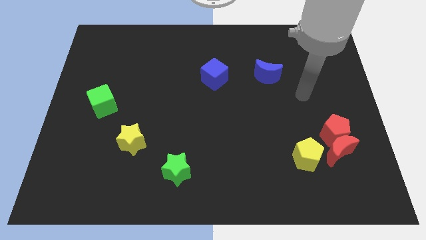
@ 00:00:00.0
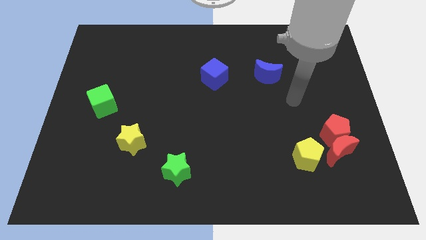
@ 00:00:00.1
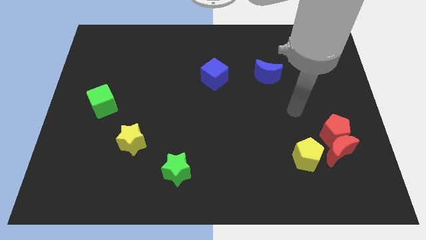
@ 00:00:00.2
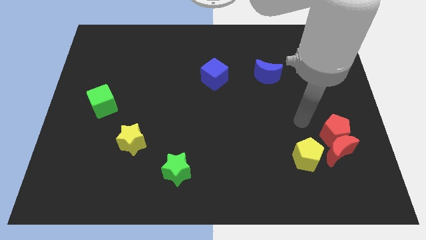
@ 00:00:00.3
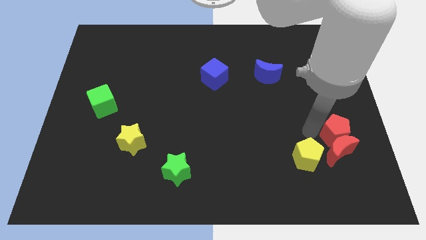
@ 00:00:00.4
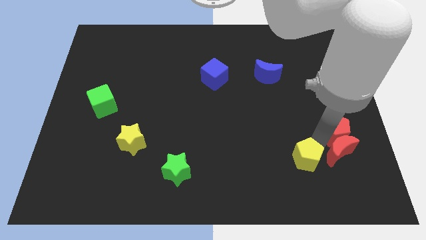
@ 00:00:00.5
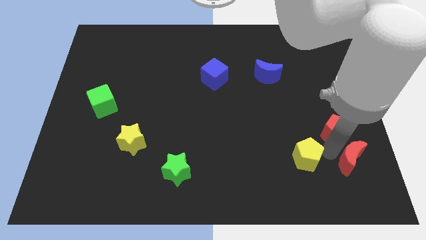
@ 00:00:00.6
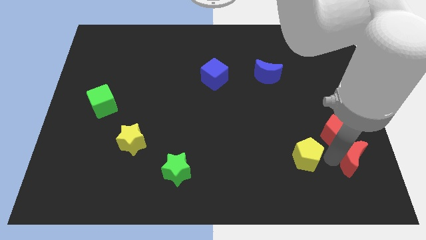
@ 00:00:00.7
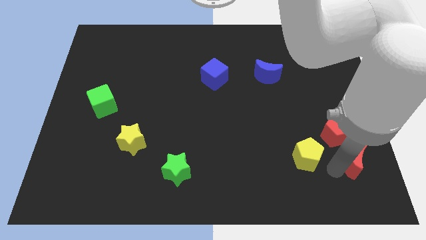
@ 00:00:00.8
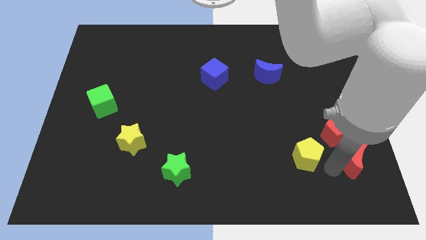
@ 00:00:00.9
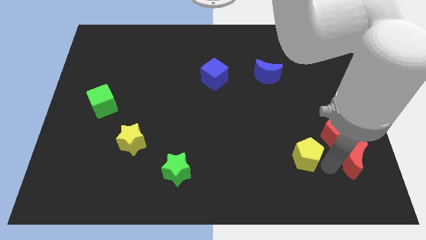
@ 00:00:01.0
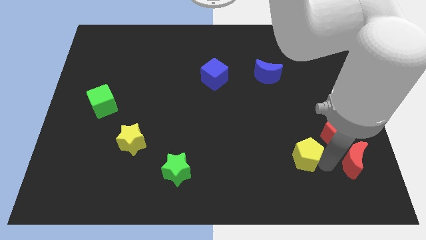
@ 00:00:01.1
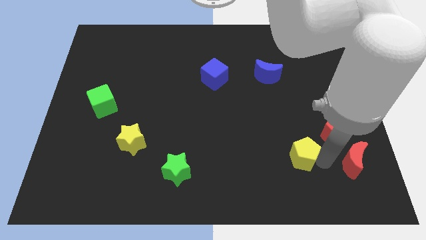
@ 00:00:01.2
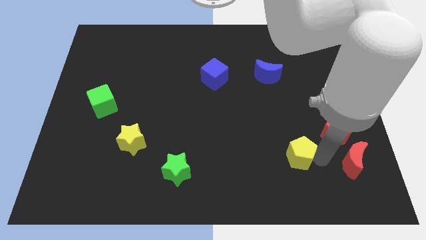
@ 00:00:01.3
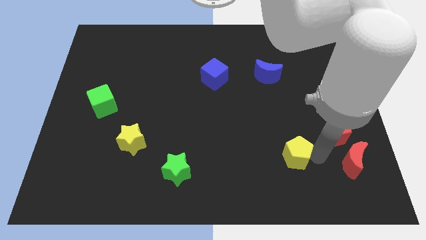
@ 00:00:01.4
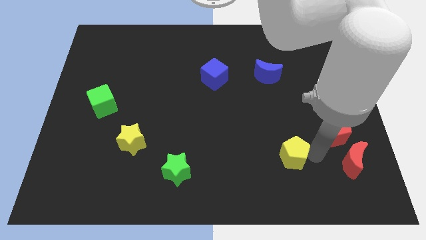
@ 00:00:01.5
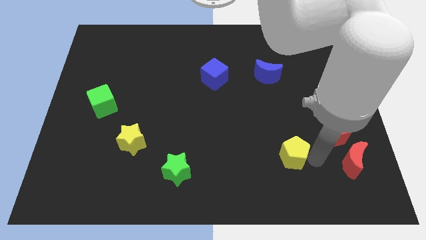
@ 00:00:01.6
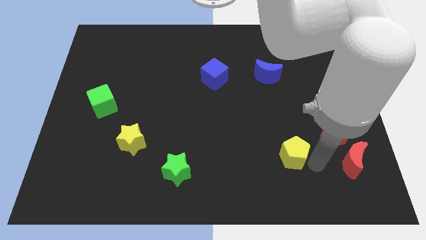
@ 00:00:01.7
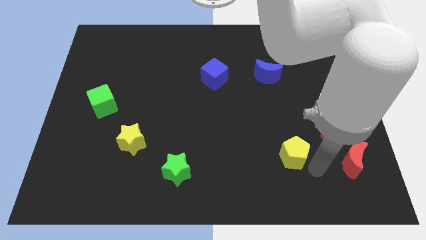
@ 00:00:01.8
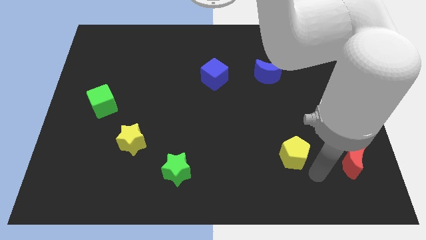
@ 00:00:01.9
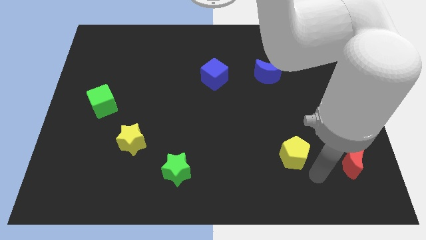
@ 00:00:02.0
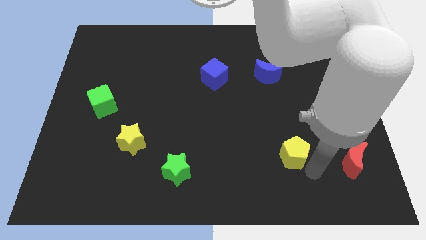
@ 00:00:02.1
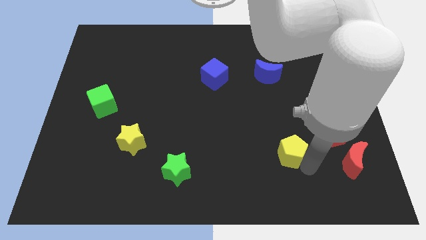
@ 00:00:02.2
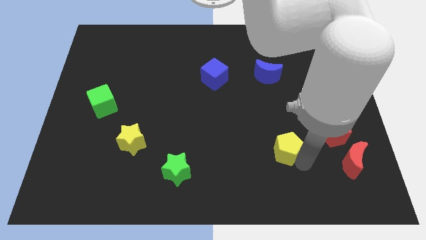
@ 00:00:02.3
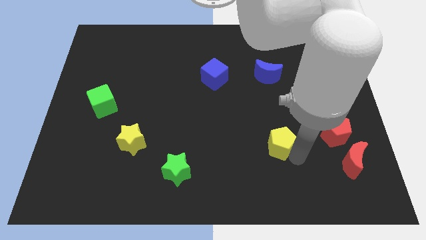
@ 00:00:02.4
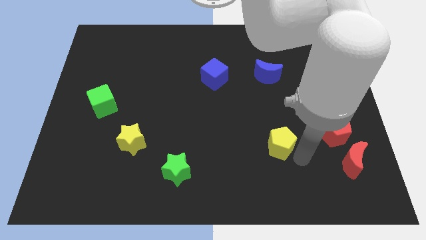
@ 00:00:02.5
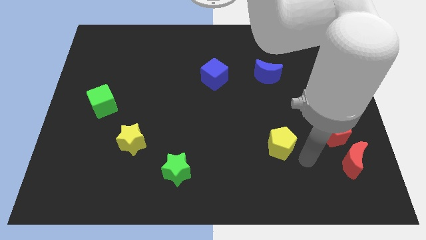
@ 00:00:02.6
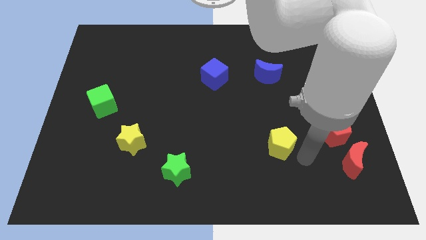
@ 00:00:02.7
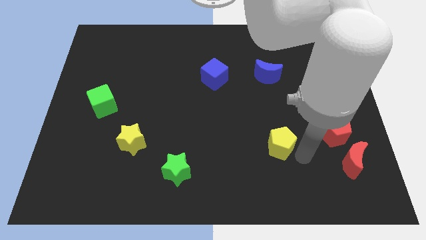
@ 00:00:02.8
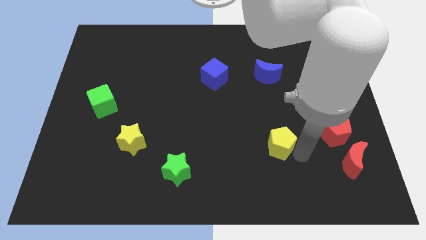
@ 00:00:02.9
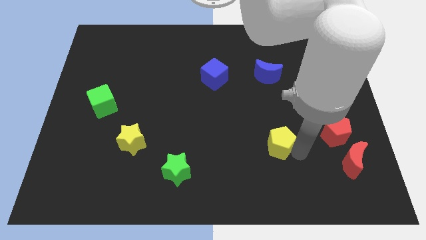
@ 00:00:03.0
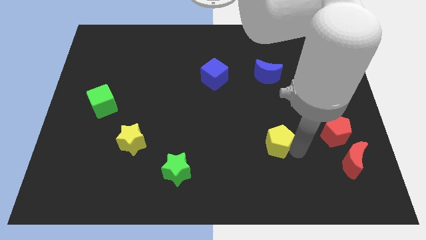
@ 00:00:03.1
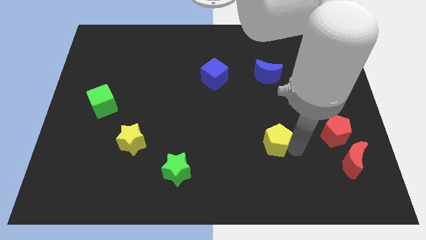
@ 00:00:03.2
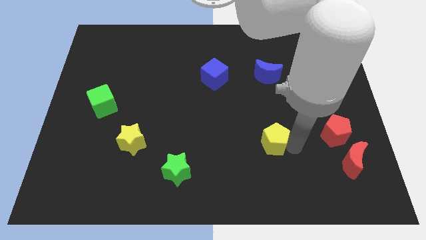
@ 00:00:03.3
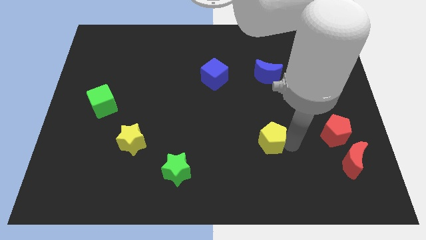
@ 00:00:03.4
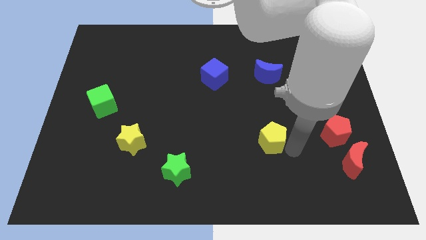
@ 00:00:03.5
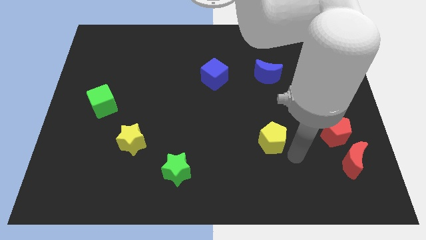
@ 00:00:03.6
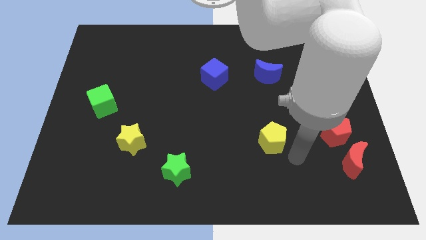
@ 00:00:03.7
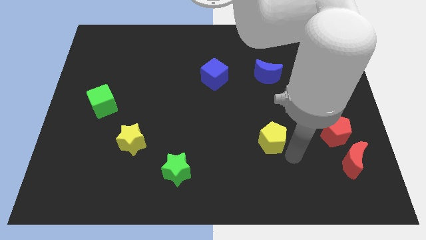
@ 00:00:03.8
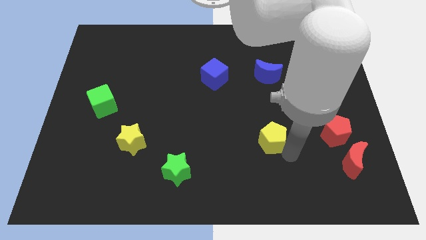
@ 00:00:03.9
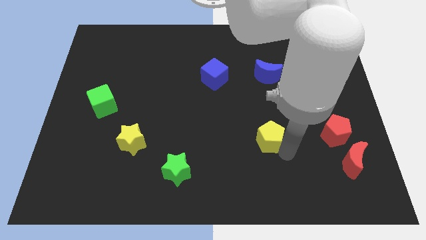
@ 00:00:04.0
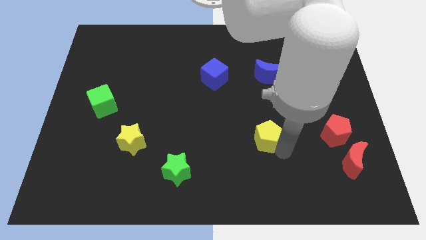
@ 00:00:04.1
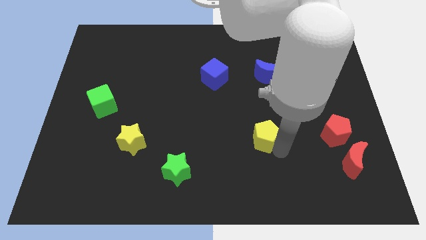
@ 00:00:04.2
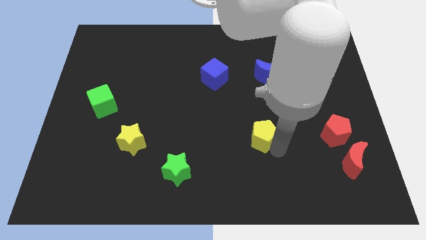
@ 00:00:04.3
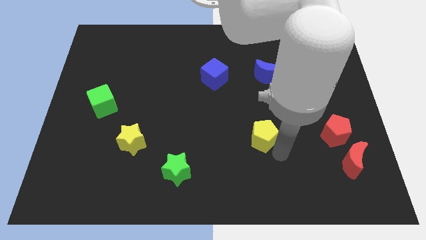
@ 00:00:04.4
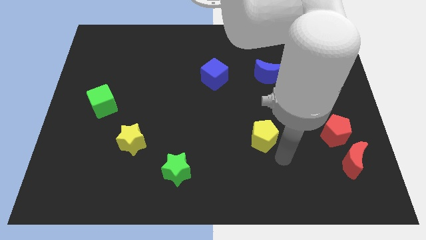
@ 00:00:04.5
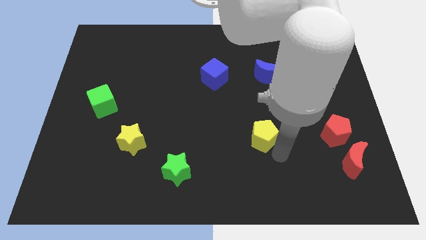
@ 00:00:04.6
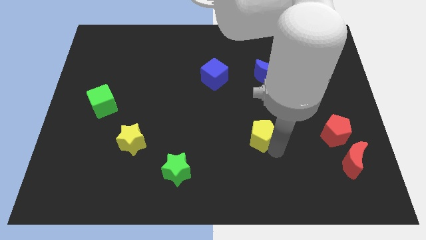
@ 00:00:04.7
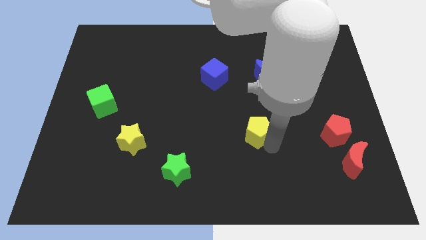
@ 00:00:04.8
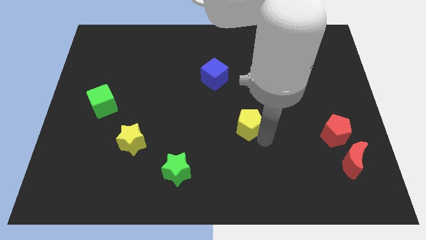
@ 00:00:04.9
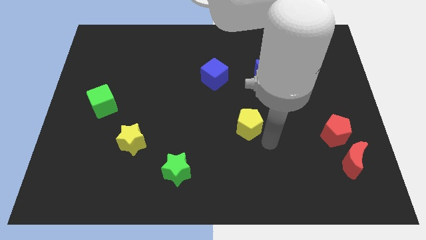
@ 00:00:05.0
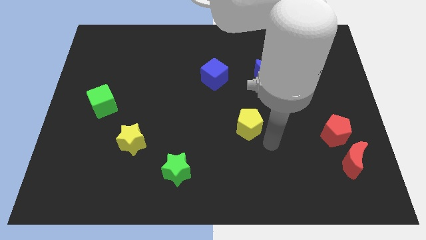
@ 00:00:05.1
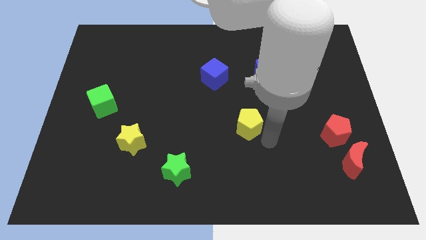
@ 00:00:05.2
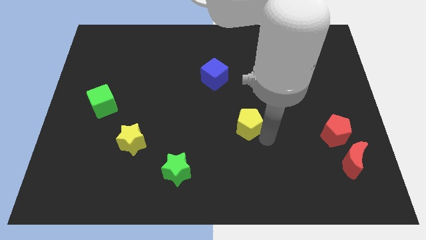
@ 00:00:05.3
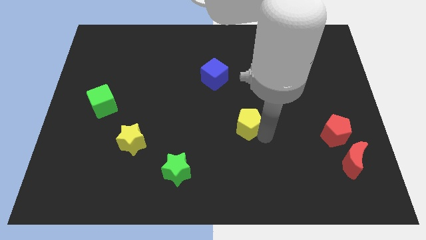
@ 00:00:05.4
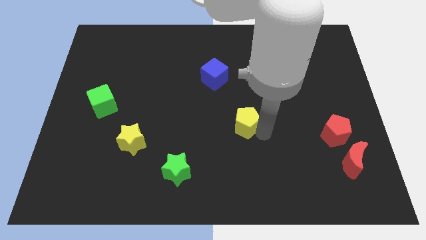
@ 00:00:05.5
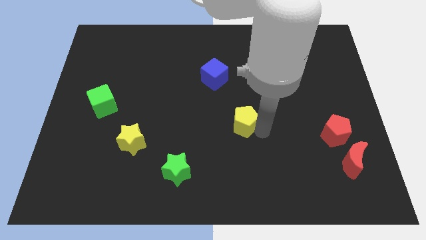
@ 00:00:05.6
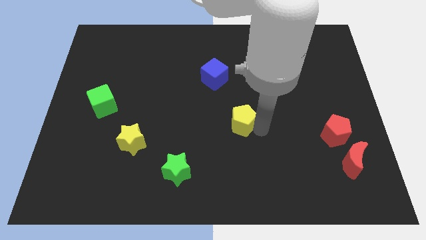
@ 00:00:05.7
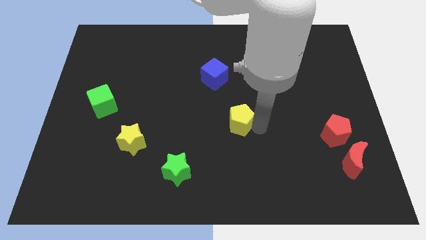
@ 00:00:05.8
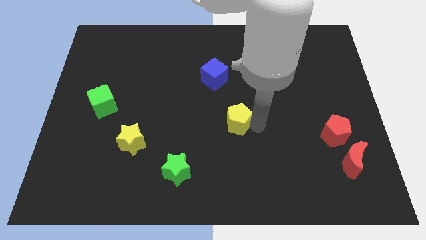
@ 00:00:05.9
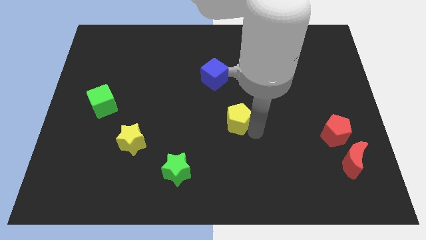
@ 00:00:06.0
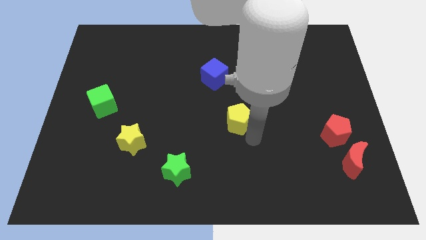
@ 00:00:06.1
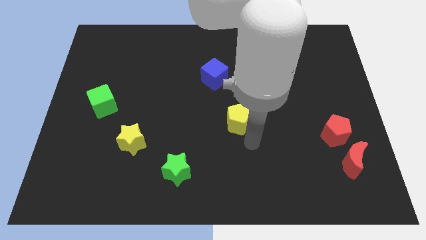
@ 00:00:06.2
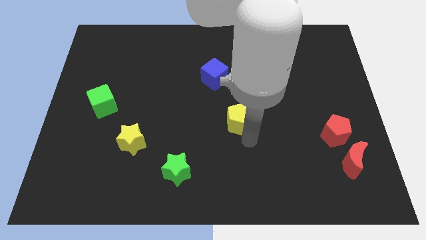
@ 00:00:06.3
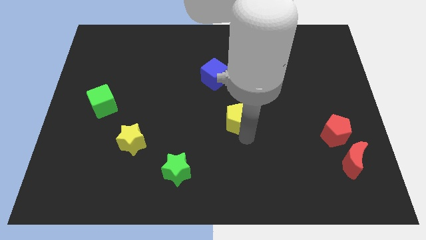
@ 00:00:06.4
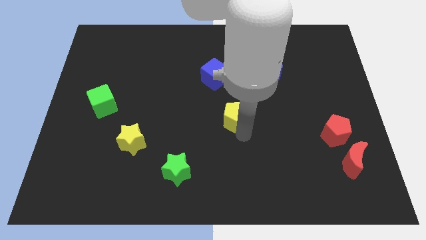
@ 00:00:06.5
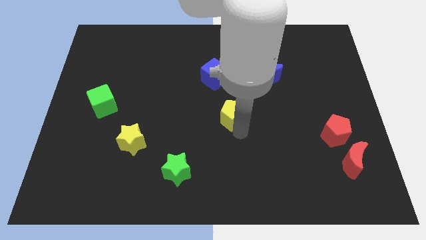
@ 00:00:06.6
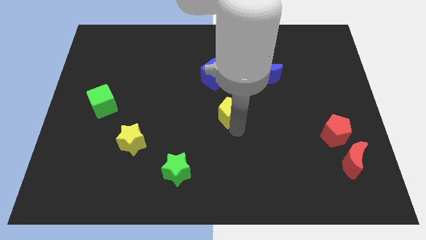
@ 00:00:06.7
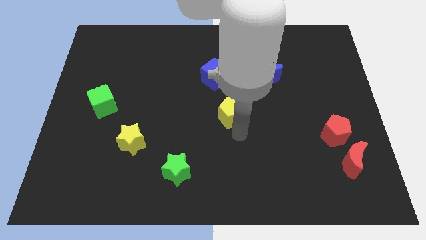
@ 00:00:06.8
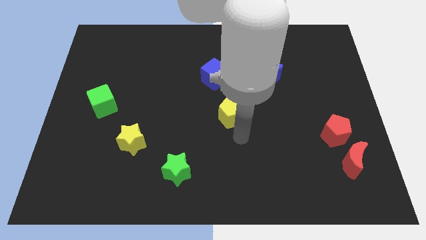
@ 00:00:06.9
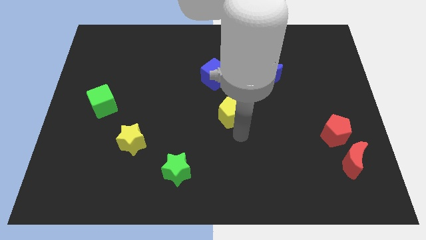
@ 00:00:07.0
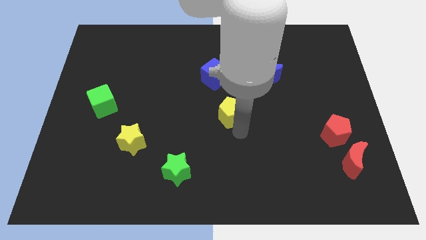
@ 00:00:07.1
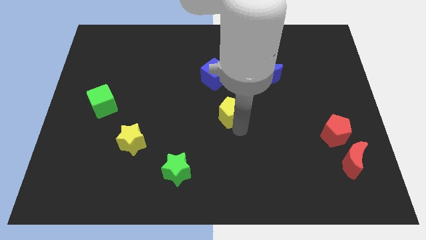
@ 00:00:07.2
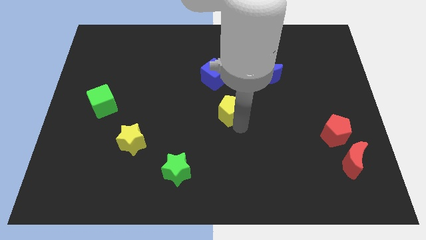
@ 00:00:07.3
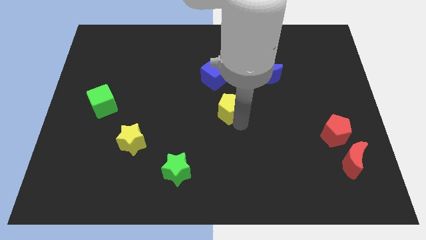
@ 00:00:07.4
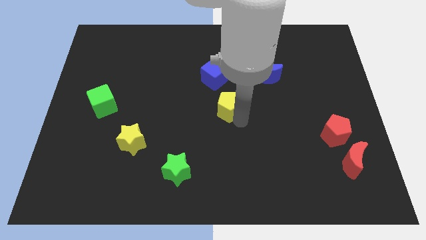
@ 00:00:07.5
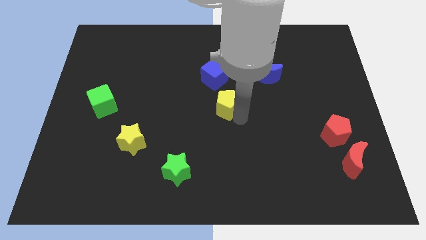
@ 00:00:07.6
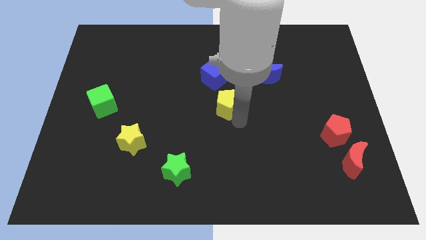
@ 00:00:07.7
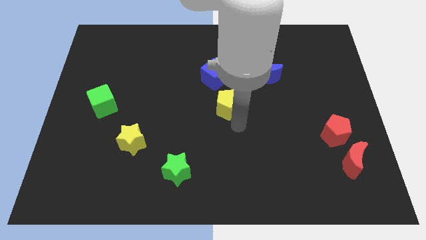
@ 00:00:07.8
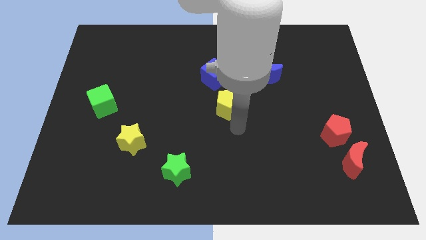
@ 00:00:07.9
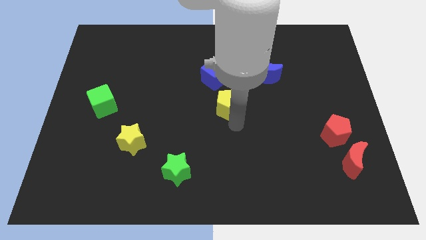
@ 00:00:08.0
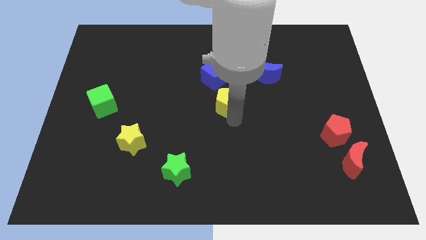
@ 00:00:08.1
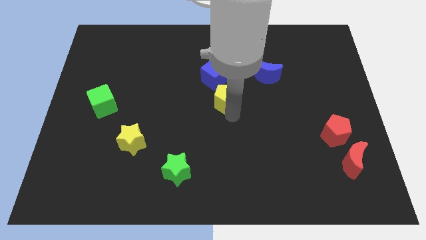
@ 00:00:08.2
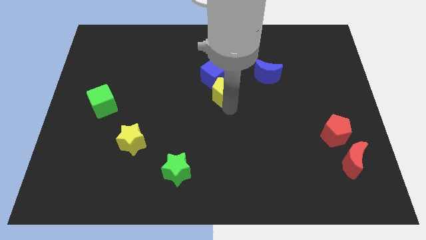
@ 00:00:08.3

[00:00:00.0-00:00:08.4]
slide the yellow pentagon to the blue cube
